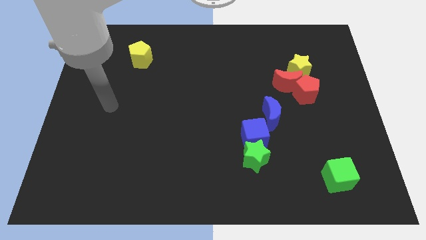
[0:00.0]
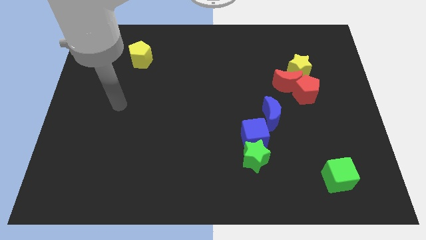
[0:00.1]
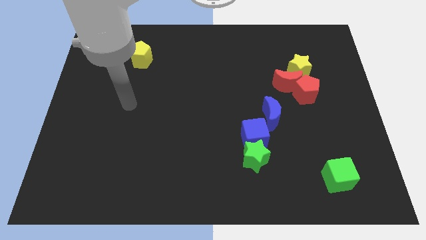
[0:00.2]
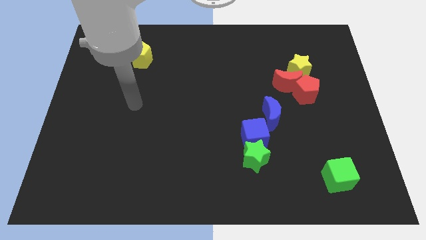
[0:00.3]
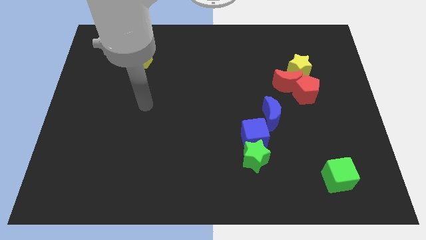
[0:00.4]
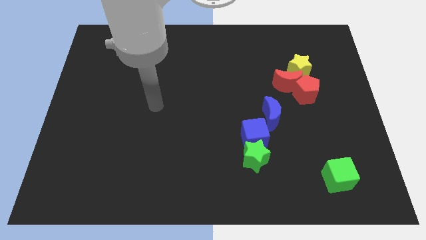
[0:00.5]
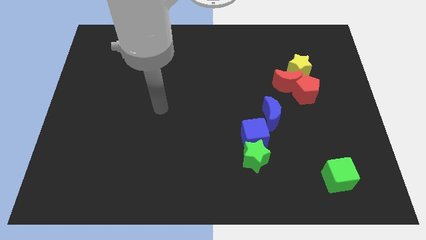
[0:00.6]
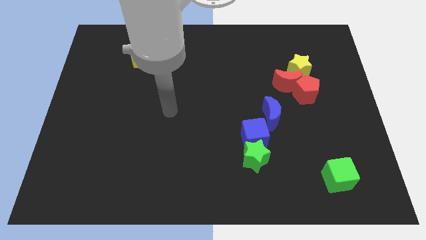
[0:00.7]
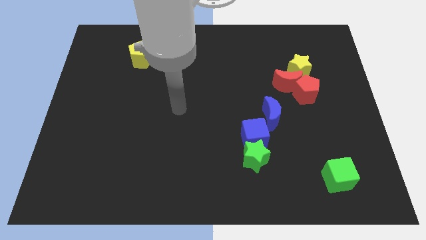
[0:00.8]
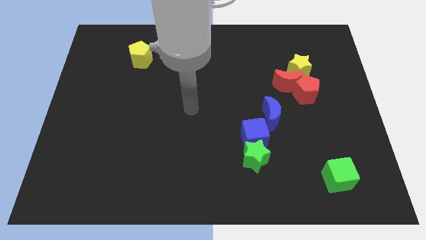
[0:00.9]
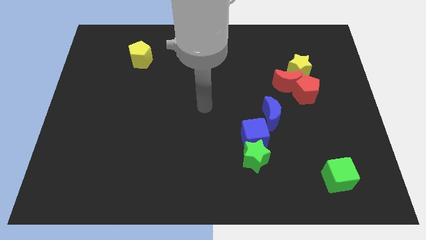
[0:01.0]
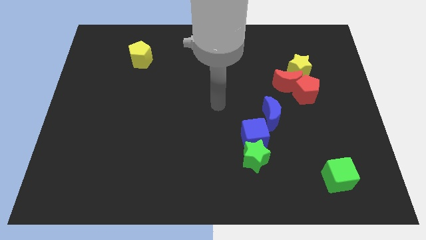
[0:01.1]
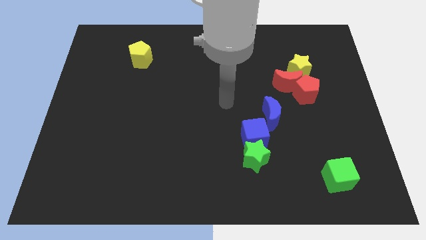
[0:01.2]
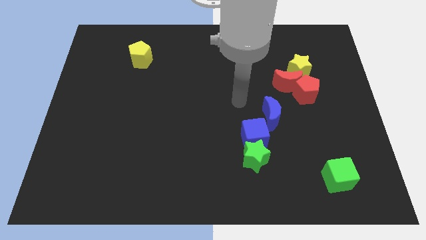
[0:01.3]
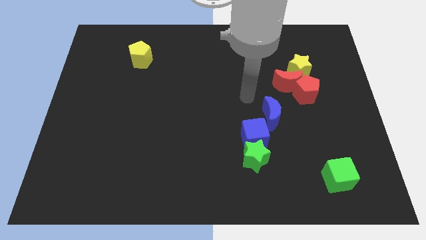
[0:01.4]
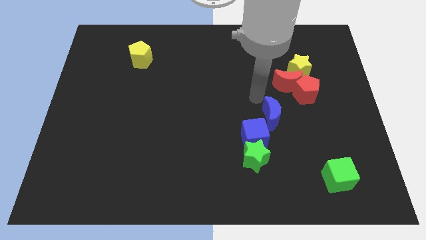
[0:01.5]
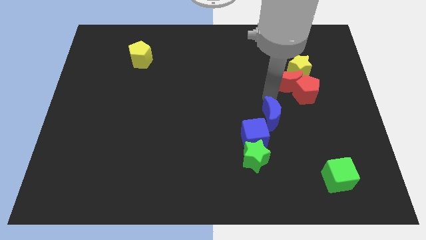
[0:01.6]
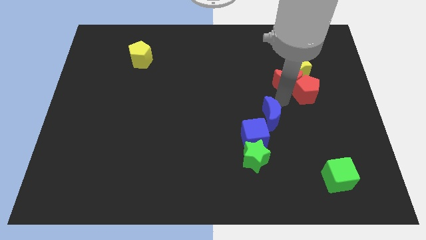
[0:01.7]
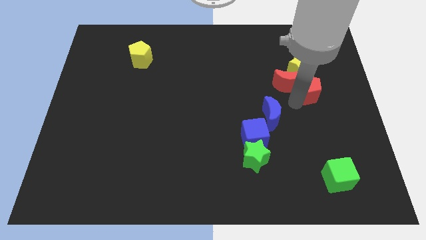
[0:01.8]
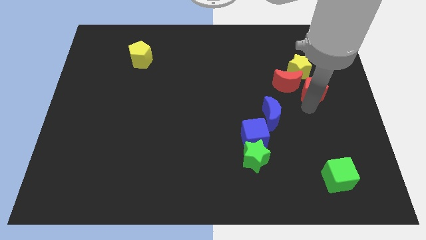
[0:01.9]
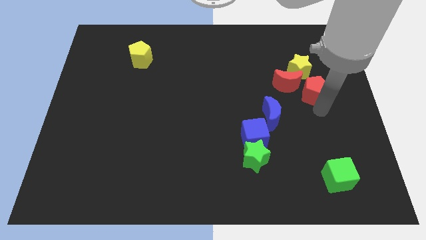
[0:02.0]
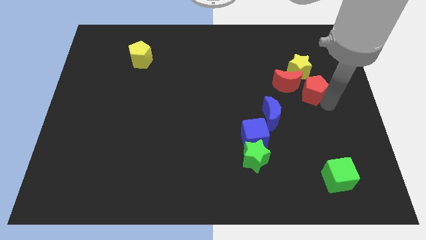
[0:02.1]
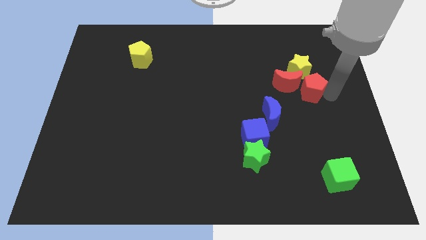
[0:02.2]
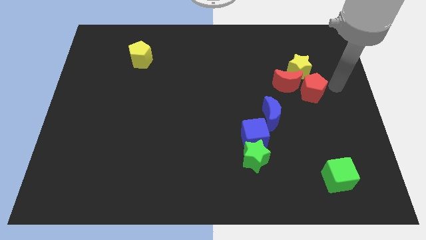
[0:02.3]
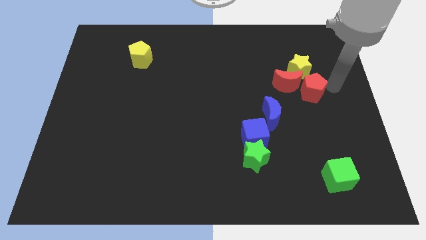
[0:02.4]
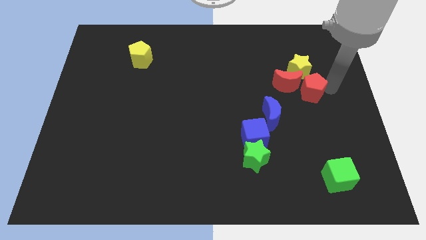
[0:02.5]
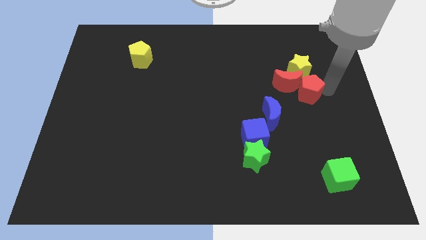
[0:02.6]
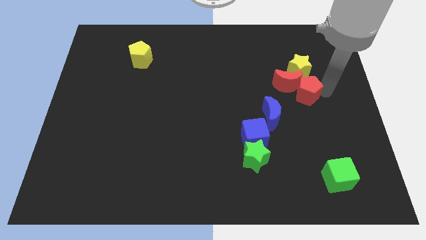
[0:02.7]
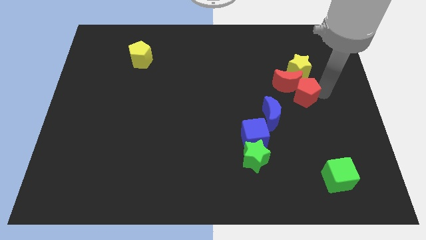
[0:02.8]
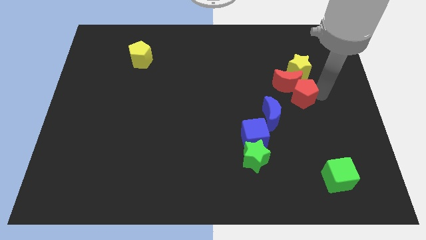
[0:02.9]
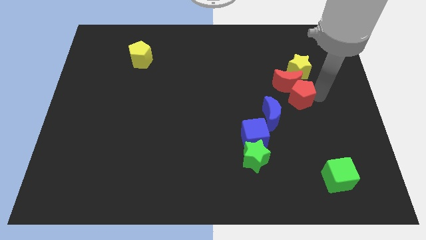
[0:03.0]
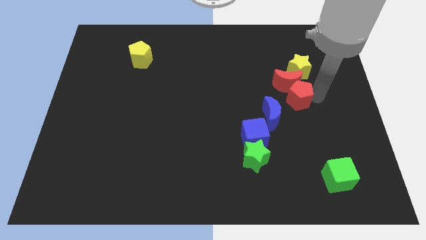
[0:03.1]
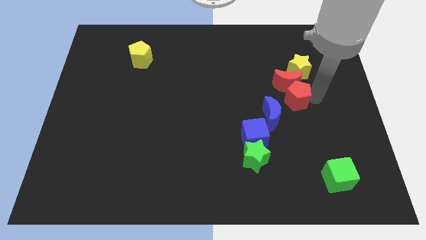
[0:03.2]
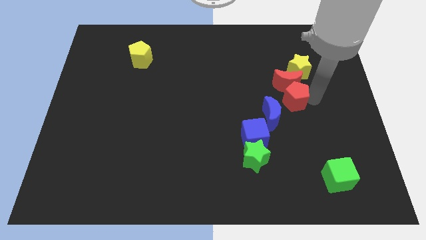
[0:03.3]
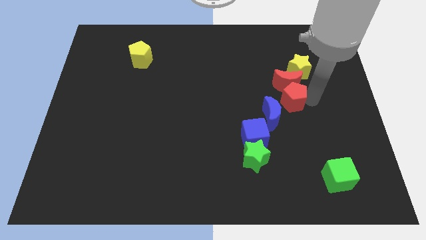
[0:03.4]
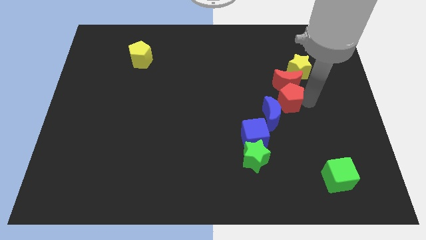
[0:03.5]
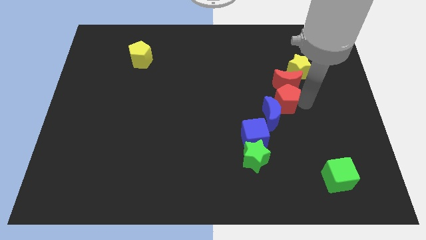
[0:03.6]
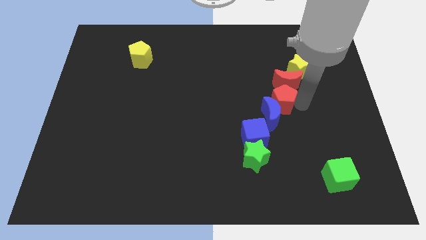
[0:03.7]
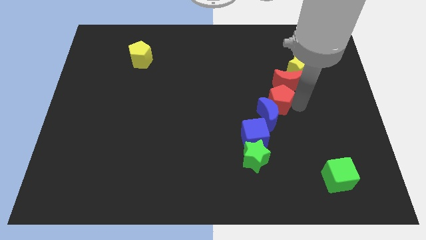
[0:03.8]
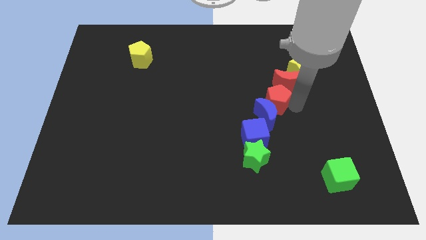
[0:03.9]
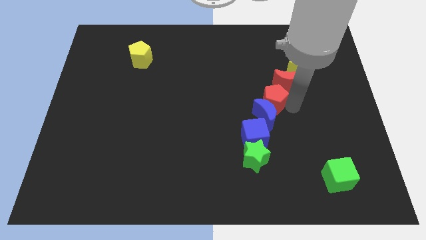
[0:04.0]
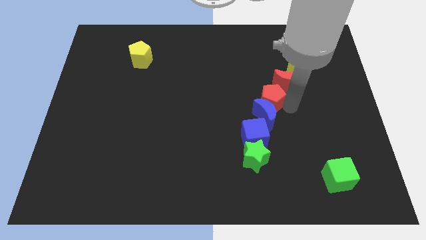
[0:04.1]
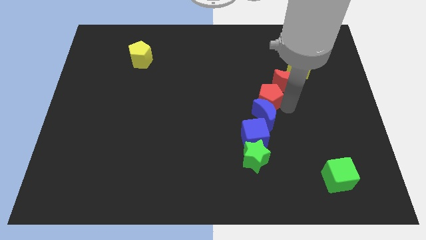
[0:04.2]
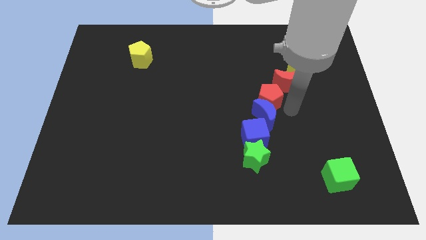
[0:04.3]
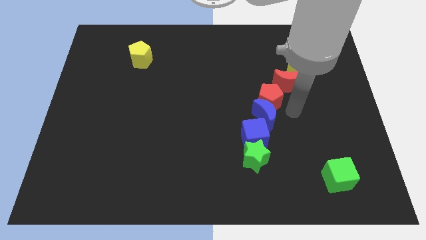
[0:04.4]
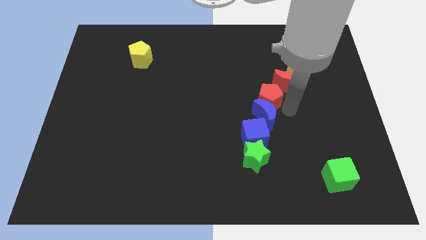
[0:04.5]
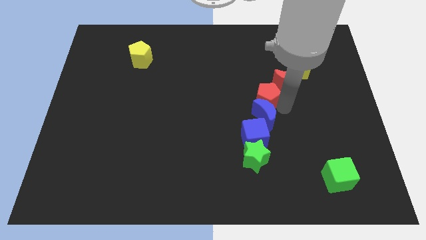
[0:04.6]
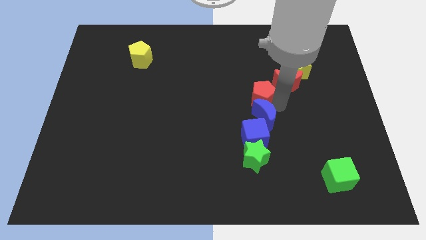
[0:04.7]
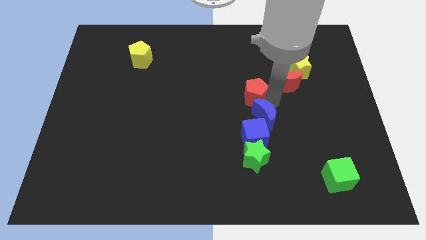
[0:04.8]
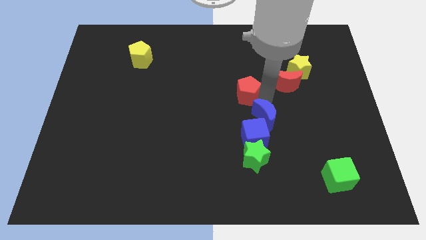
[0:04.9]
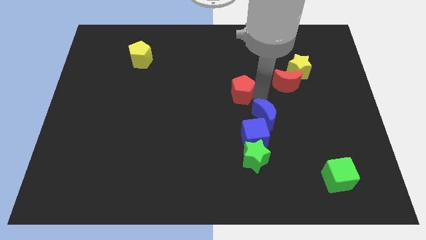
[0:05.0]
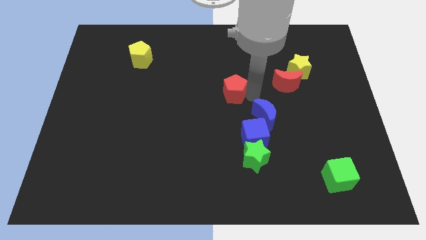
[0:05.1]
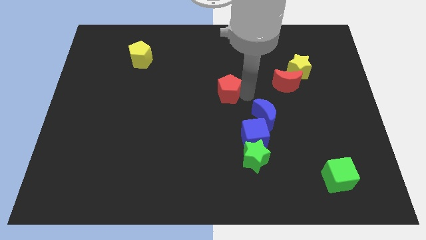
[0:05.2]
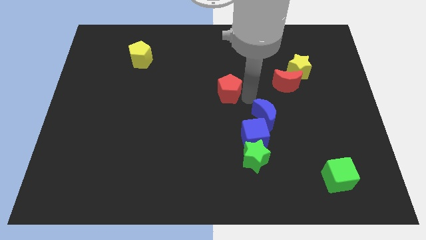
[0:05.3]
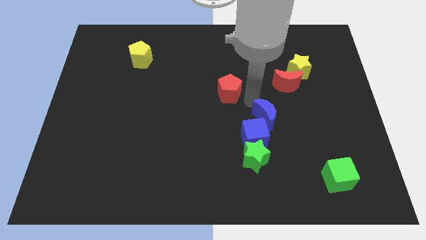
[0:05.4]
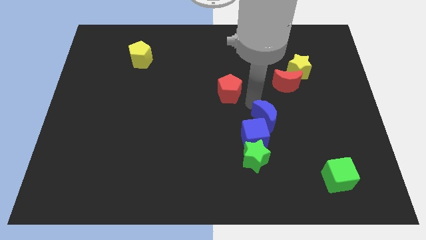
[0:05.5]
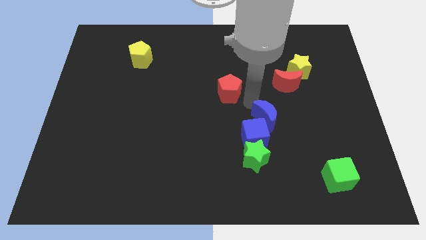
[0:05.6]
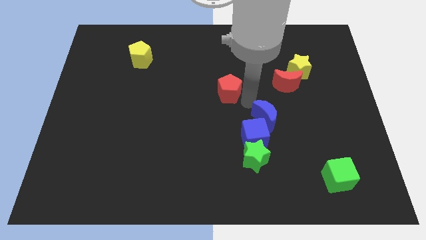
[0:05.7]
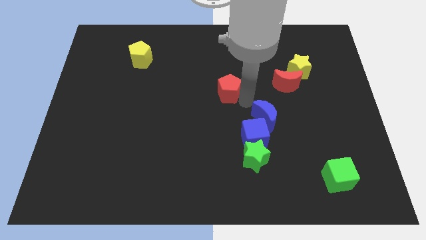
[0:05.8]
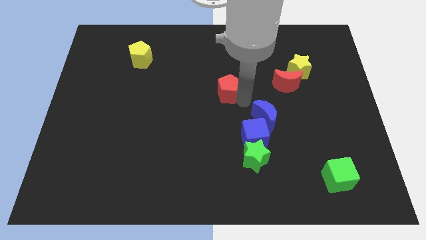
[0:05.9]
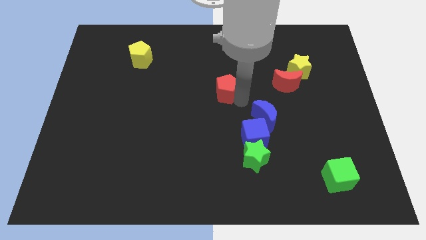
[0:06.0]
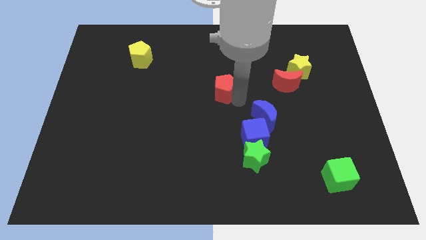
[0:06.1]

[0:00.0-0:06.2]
move the red pentagon left

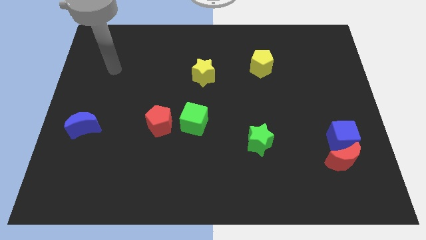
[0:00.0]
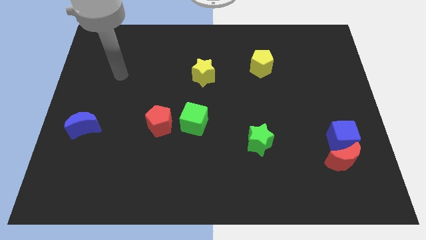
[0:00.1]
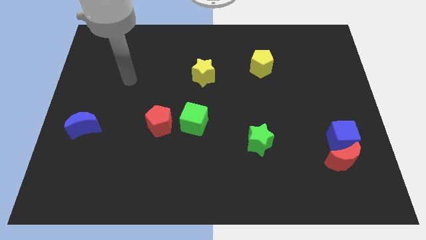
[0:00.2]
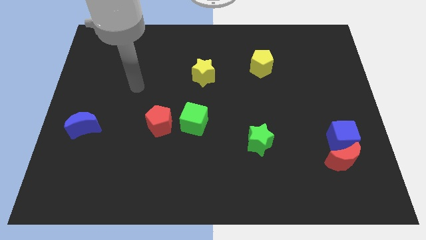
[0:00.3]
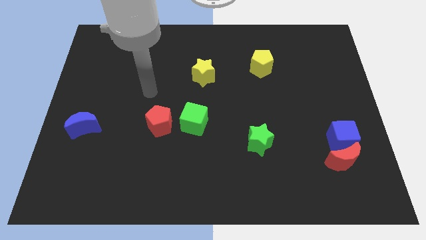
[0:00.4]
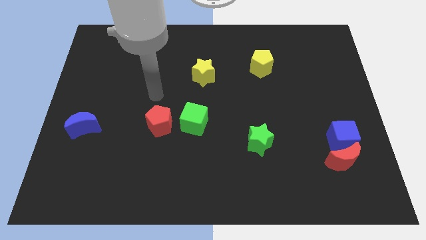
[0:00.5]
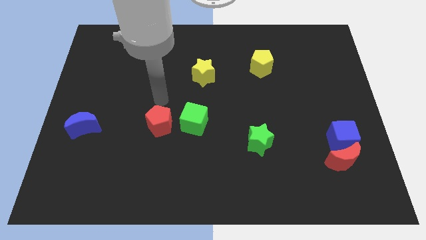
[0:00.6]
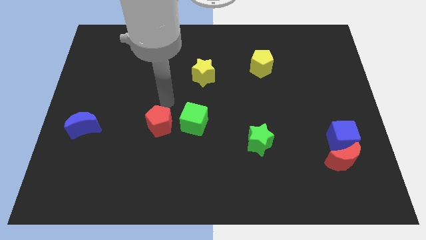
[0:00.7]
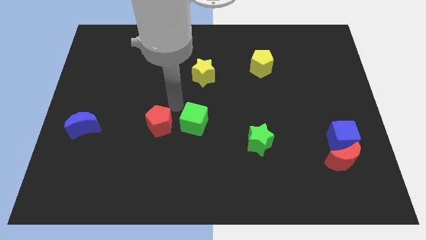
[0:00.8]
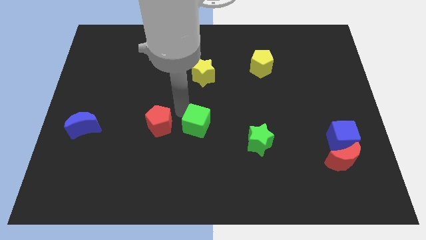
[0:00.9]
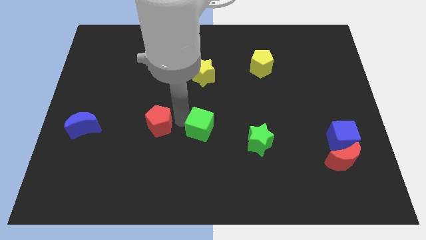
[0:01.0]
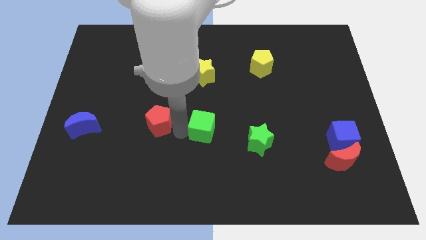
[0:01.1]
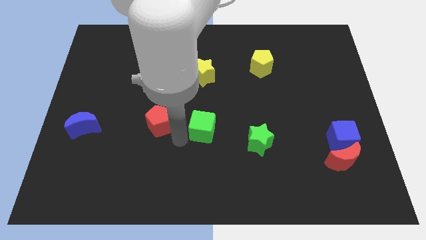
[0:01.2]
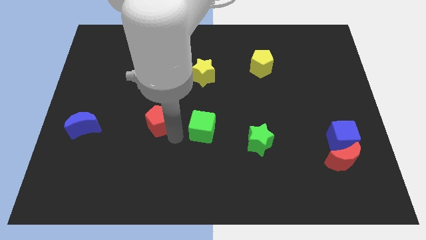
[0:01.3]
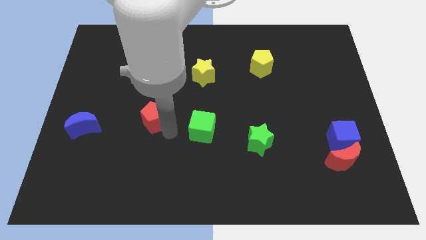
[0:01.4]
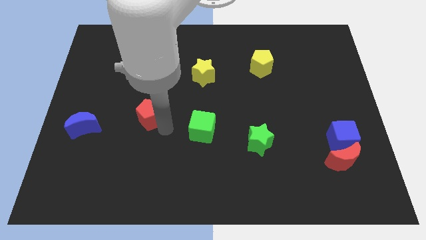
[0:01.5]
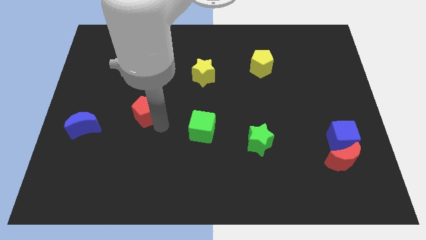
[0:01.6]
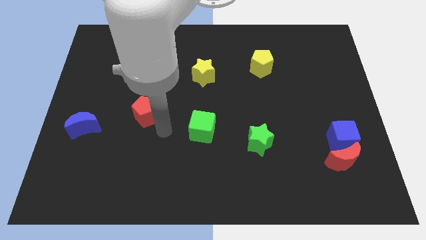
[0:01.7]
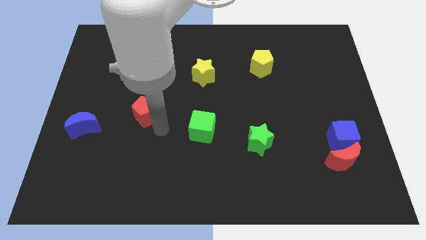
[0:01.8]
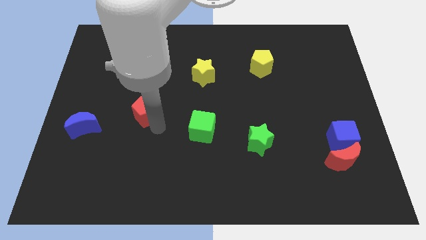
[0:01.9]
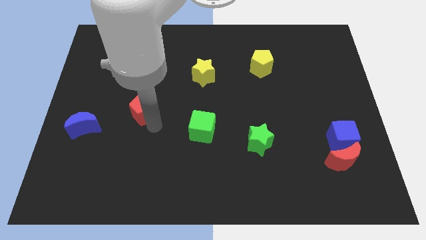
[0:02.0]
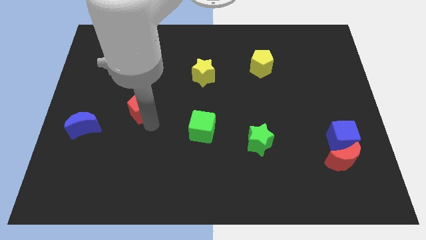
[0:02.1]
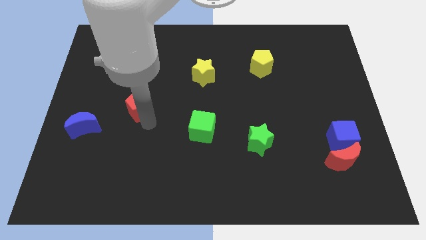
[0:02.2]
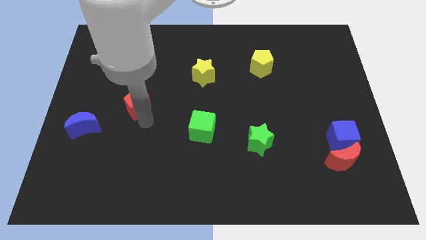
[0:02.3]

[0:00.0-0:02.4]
slide the red pentagon a little upwards and then to the left
